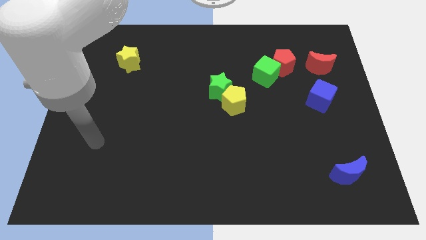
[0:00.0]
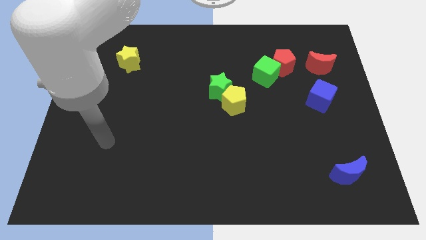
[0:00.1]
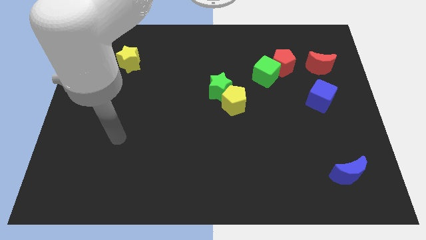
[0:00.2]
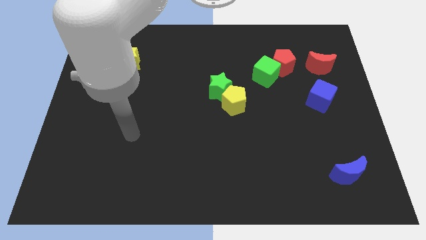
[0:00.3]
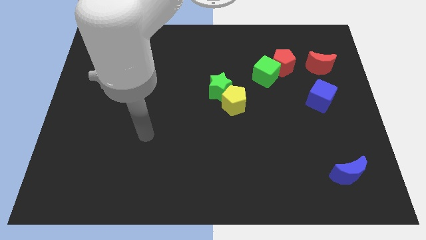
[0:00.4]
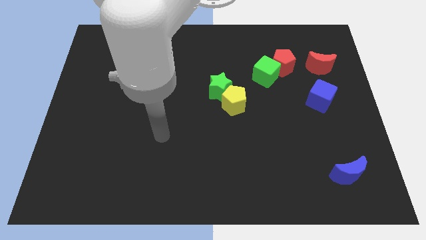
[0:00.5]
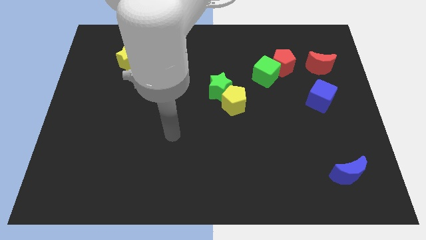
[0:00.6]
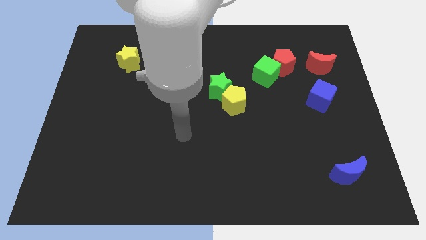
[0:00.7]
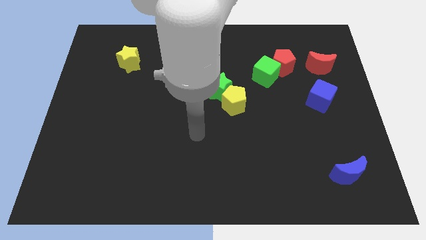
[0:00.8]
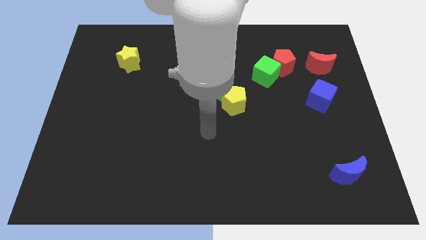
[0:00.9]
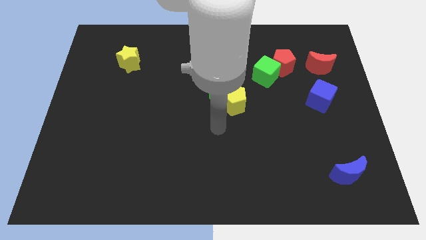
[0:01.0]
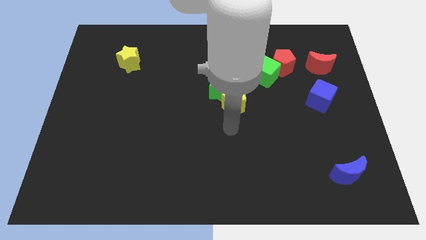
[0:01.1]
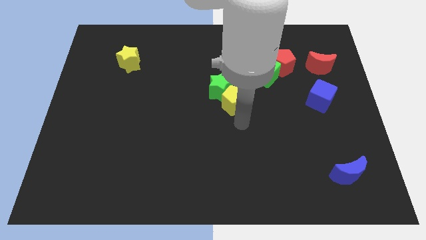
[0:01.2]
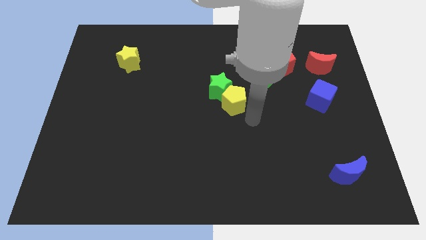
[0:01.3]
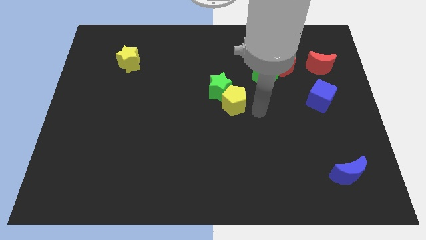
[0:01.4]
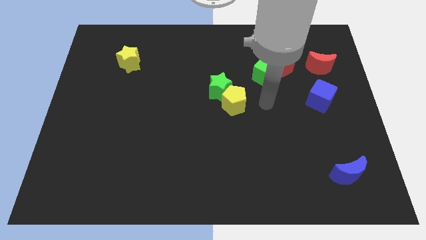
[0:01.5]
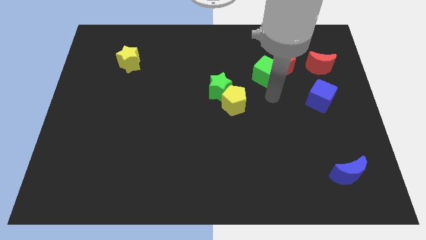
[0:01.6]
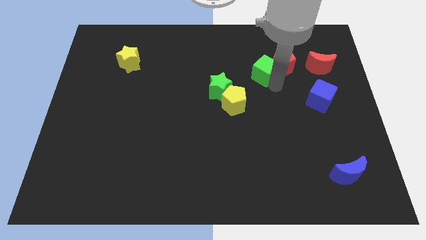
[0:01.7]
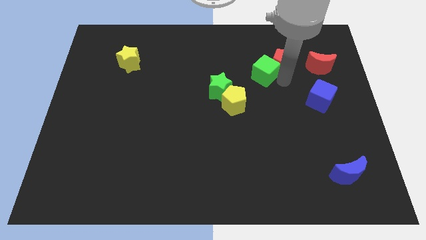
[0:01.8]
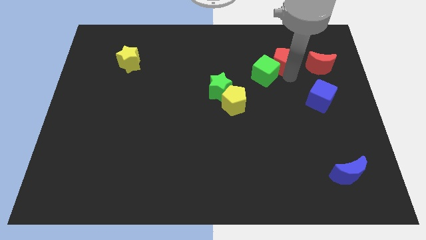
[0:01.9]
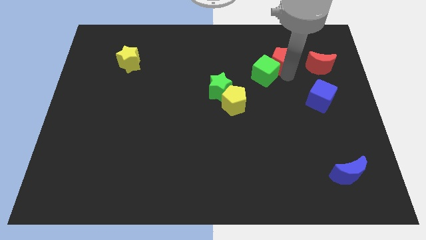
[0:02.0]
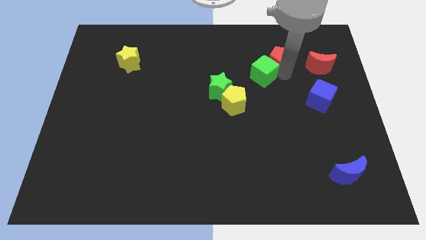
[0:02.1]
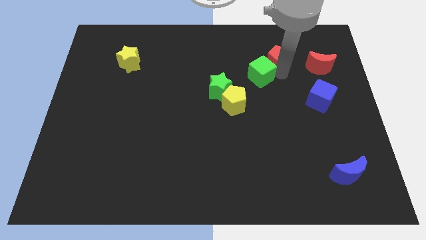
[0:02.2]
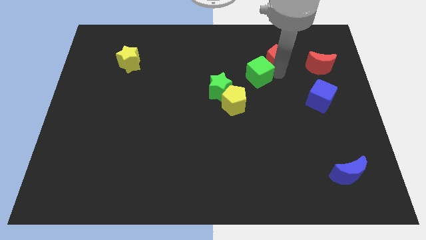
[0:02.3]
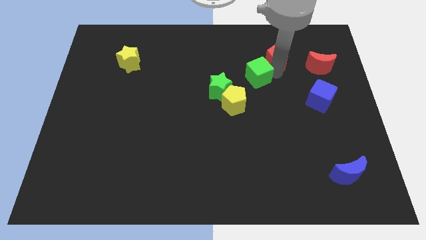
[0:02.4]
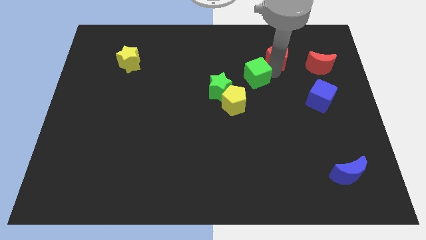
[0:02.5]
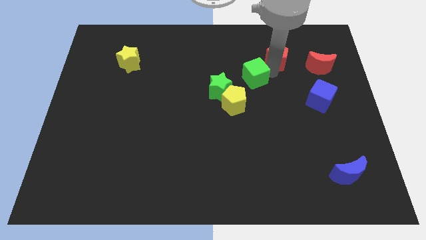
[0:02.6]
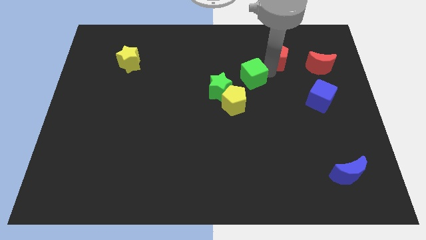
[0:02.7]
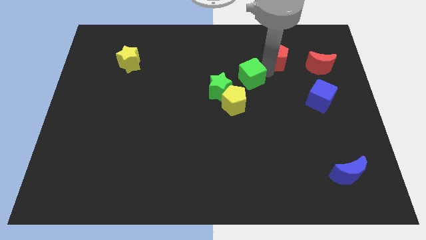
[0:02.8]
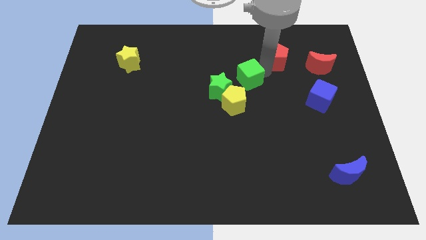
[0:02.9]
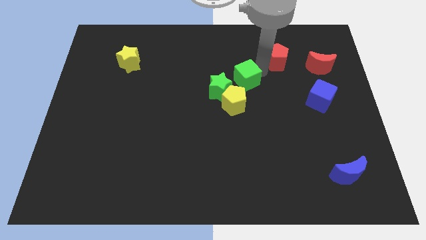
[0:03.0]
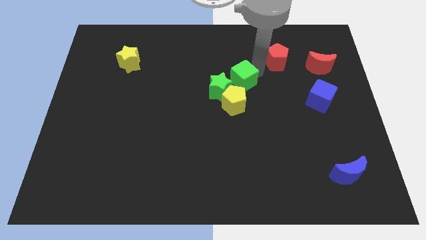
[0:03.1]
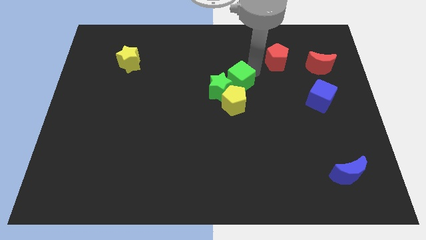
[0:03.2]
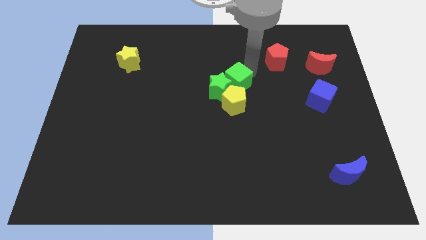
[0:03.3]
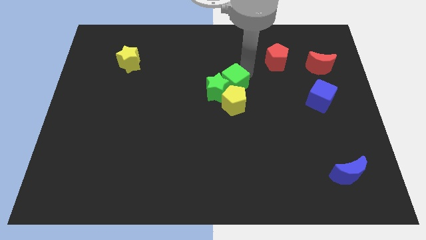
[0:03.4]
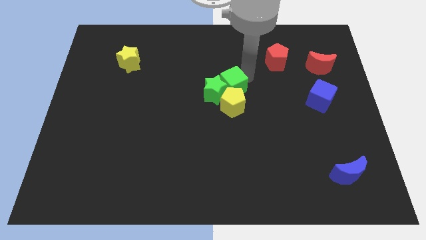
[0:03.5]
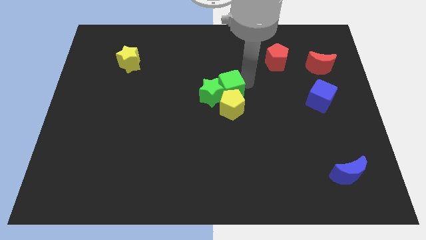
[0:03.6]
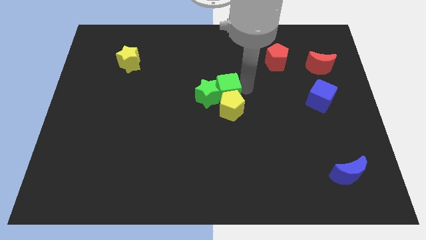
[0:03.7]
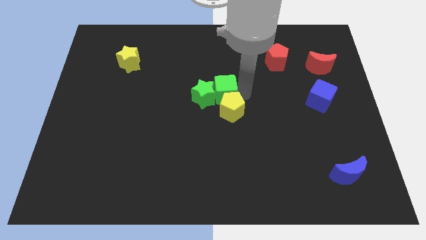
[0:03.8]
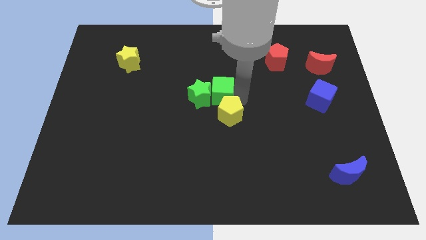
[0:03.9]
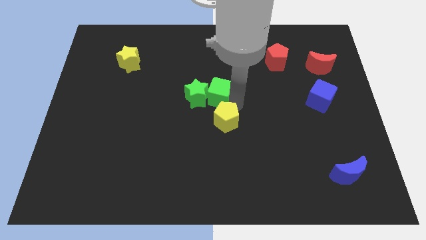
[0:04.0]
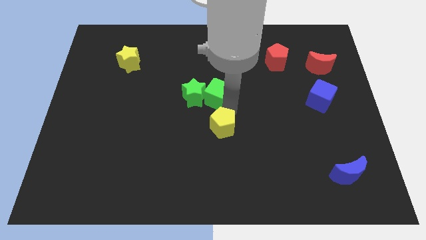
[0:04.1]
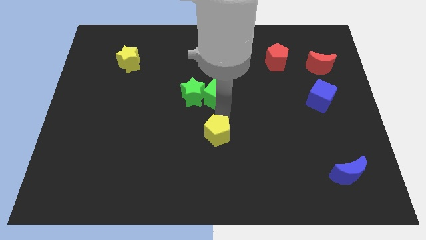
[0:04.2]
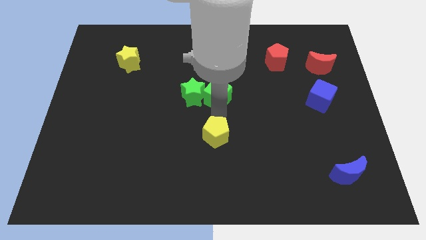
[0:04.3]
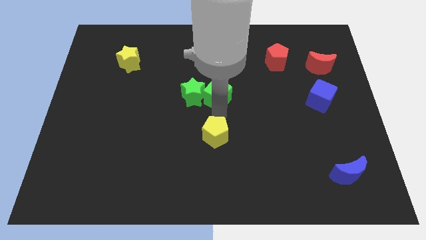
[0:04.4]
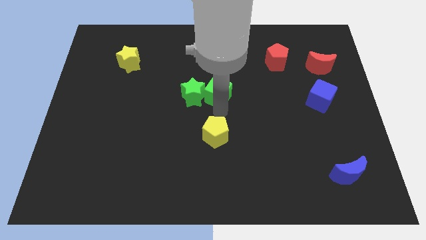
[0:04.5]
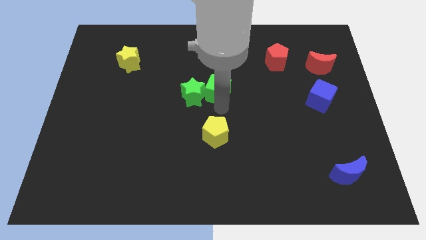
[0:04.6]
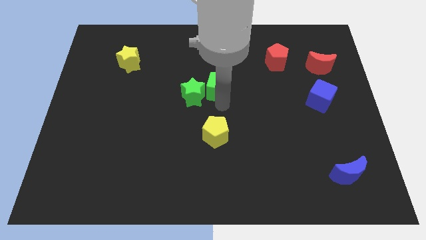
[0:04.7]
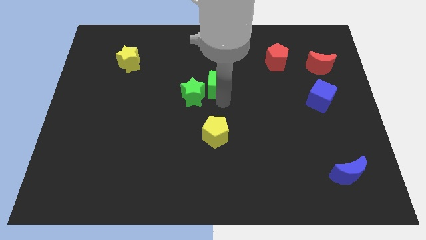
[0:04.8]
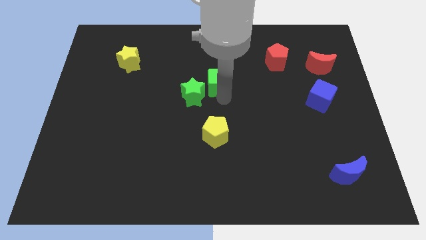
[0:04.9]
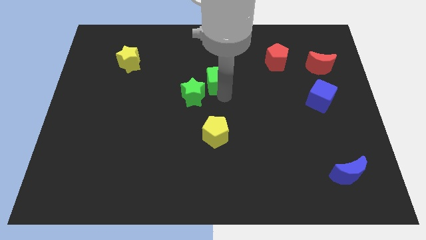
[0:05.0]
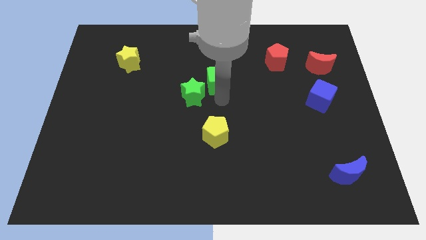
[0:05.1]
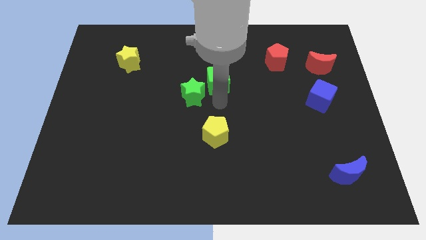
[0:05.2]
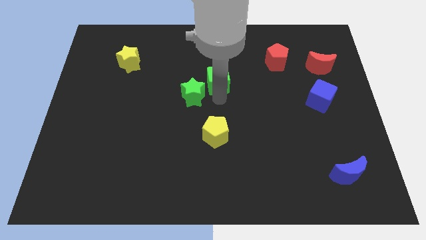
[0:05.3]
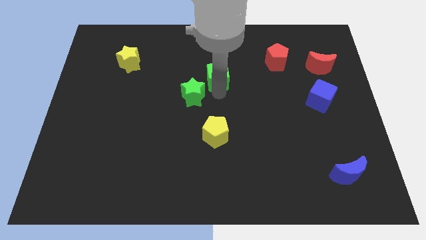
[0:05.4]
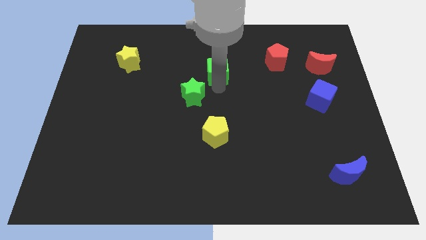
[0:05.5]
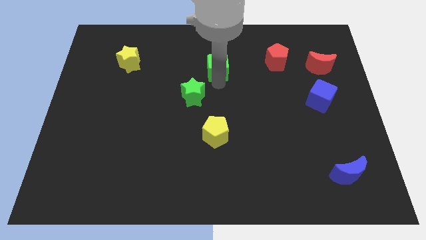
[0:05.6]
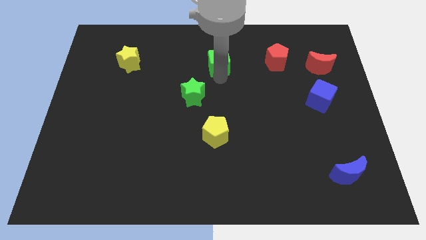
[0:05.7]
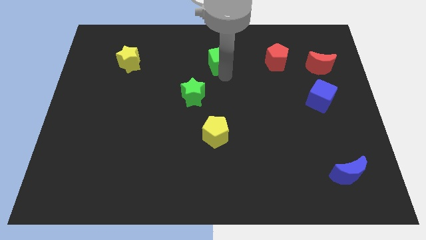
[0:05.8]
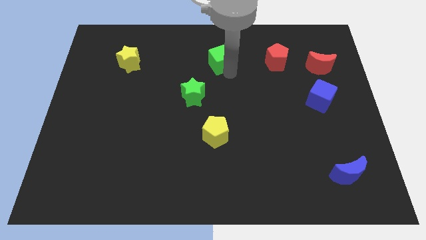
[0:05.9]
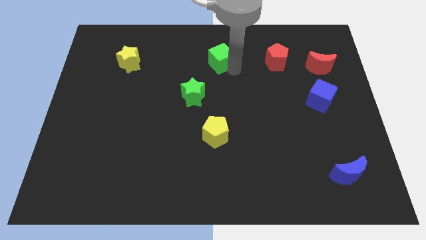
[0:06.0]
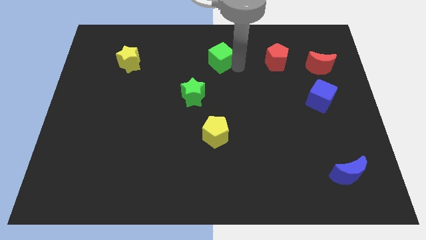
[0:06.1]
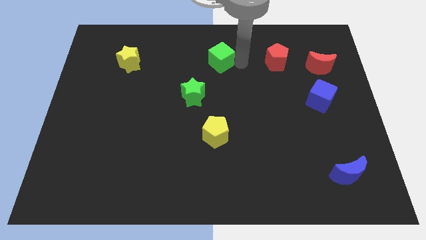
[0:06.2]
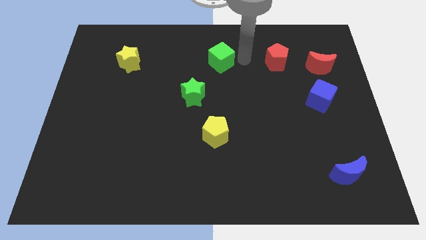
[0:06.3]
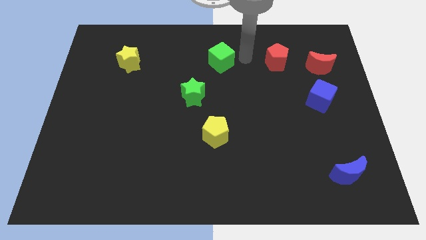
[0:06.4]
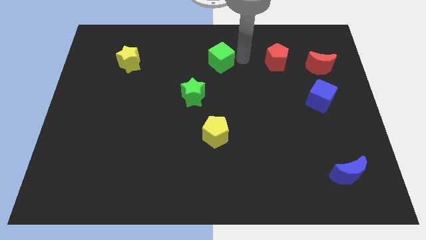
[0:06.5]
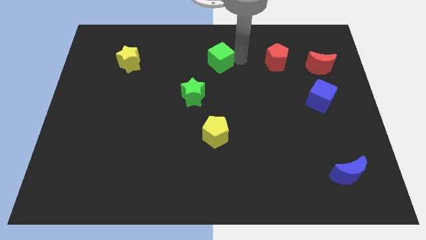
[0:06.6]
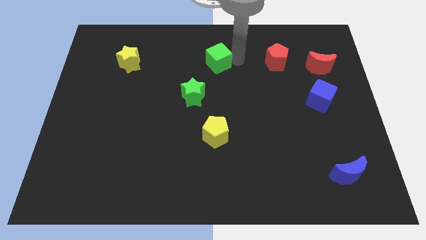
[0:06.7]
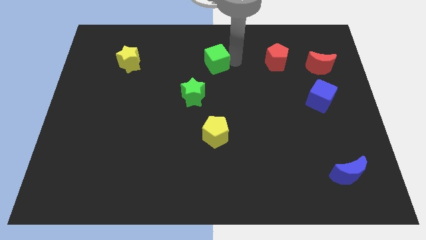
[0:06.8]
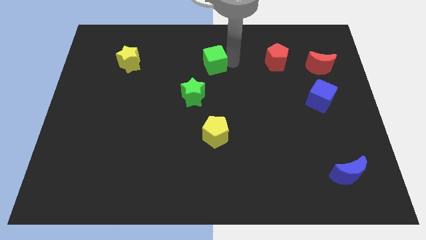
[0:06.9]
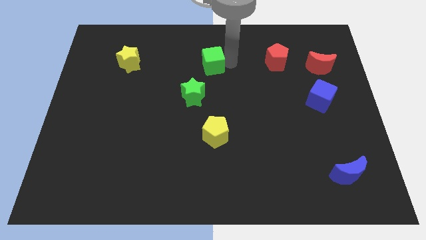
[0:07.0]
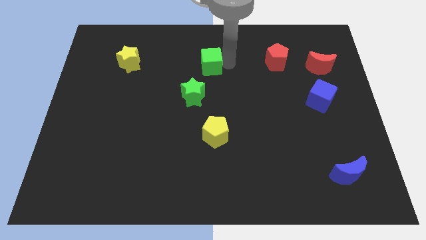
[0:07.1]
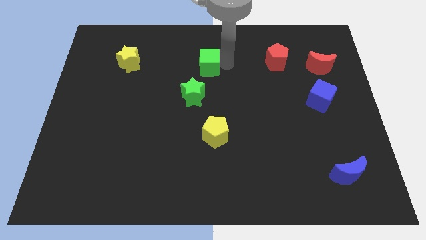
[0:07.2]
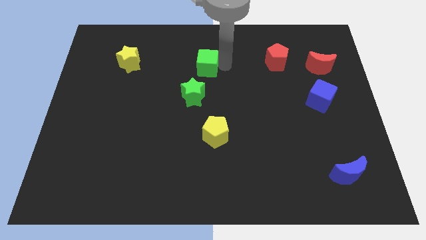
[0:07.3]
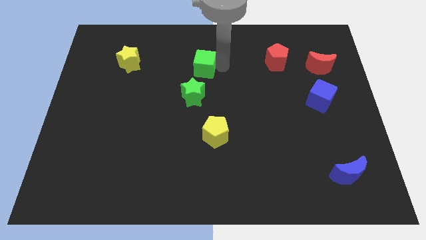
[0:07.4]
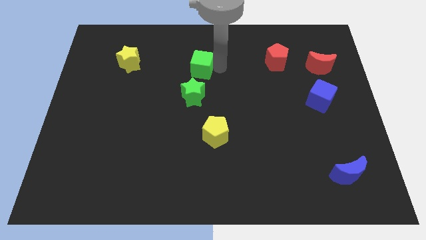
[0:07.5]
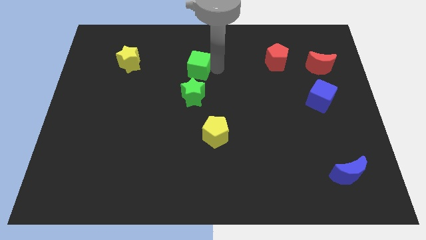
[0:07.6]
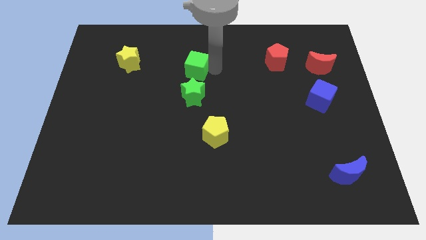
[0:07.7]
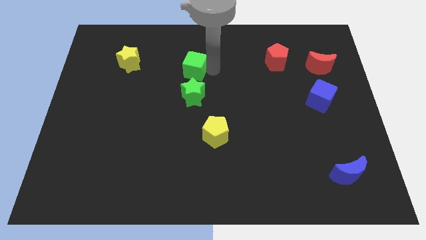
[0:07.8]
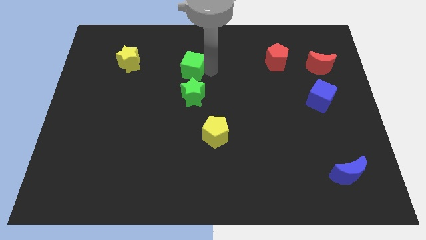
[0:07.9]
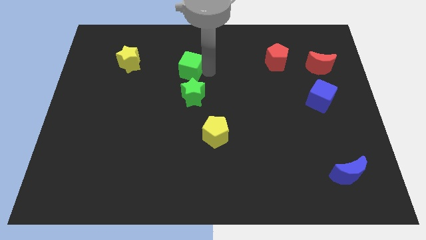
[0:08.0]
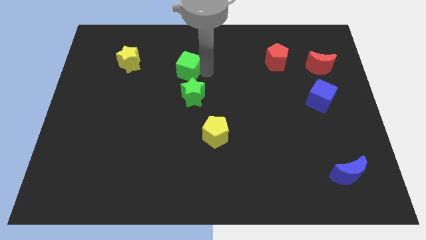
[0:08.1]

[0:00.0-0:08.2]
slide the green cube to the right side of the yellow star

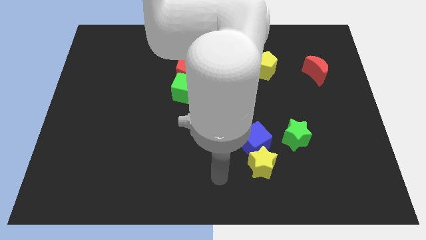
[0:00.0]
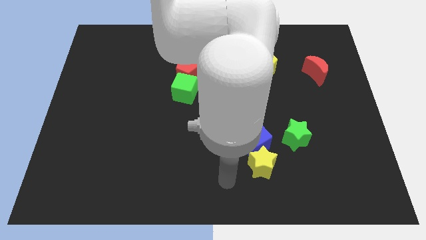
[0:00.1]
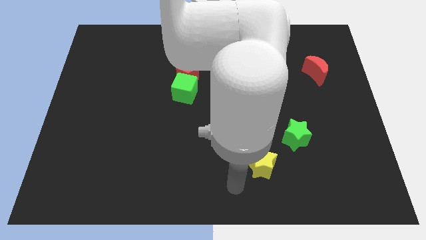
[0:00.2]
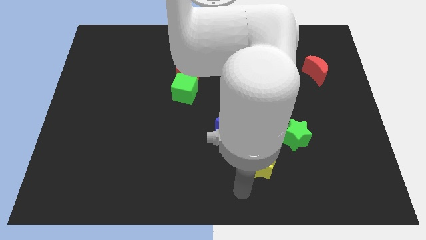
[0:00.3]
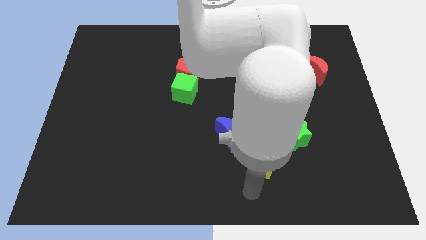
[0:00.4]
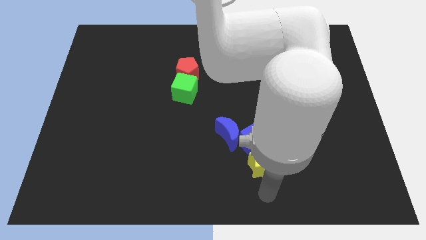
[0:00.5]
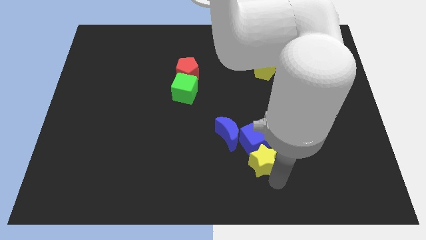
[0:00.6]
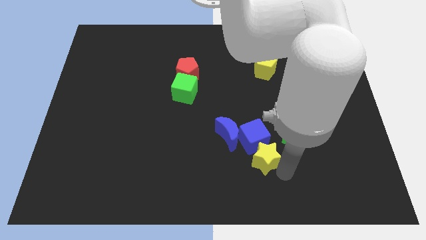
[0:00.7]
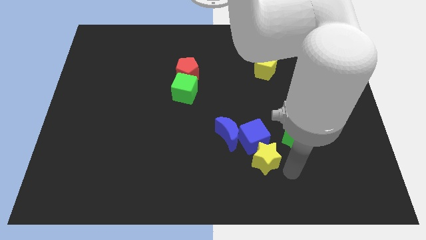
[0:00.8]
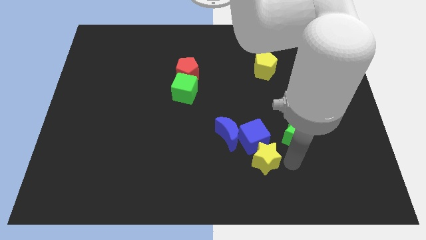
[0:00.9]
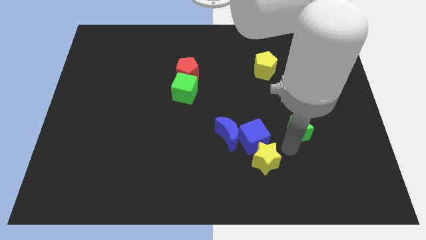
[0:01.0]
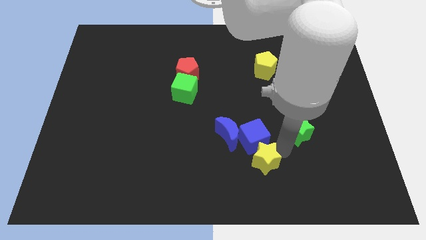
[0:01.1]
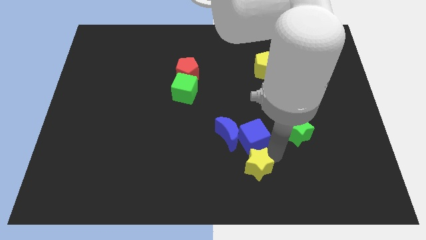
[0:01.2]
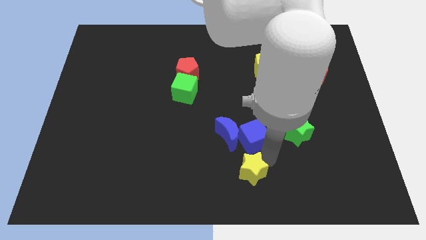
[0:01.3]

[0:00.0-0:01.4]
move the yellow star to the bottom of the blue moon
